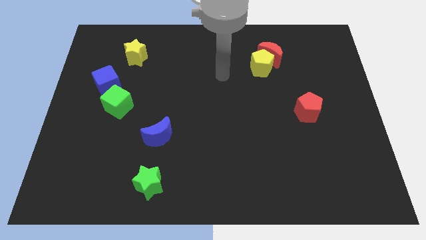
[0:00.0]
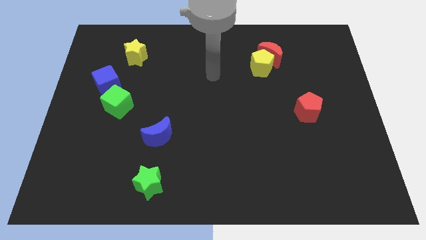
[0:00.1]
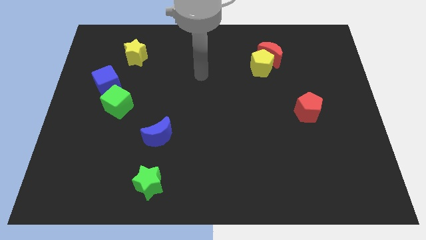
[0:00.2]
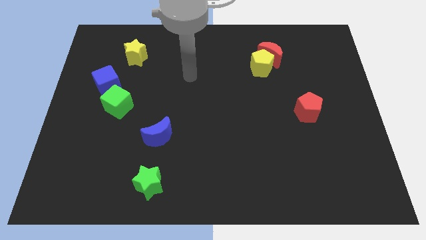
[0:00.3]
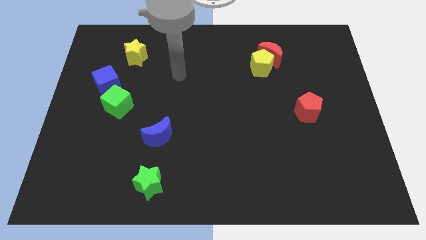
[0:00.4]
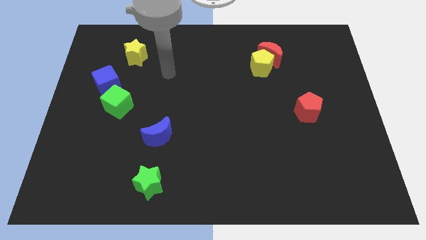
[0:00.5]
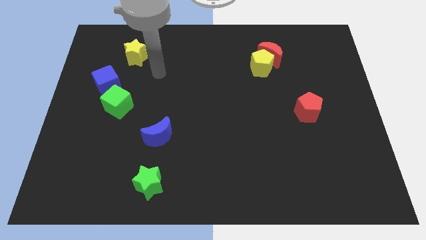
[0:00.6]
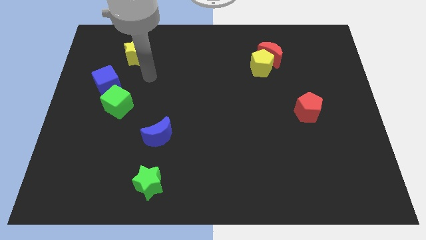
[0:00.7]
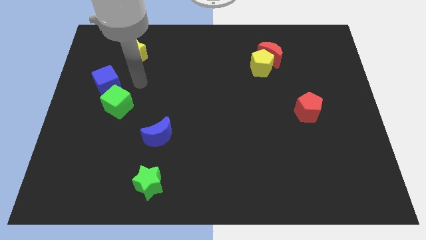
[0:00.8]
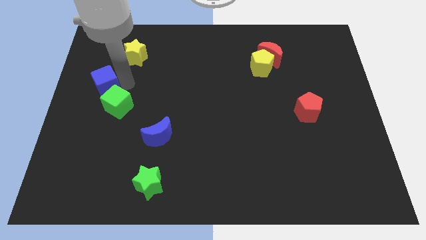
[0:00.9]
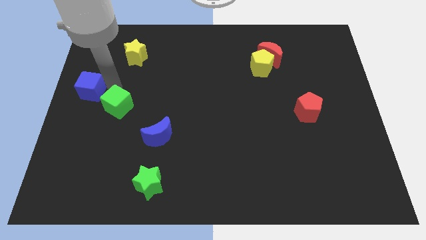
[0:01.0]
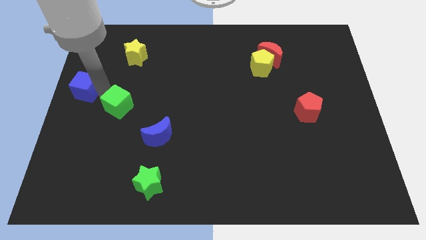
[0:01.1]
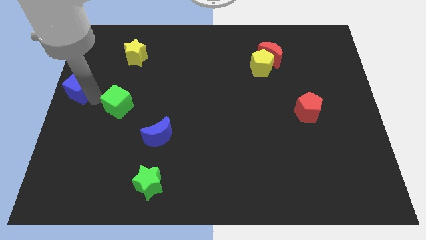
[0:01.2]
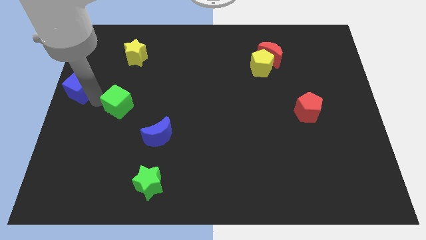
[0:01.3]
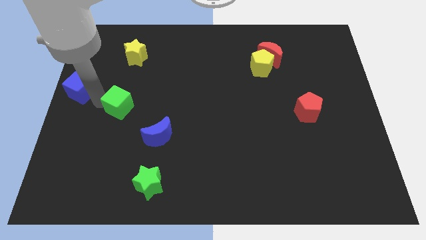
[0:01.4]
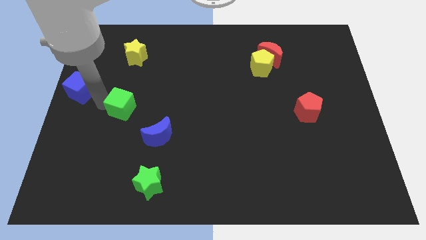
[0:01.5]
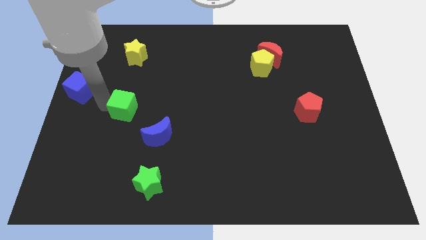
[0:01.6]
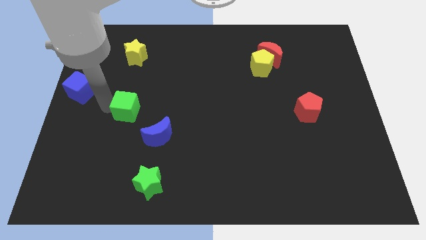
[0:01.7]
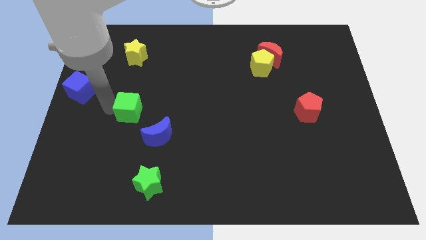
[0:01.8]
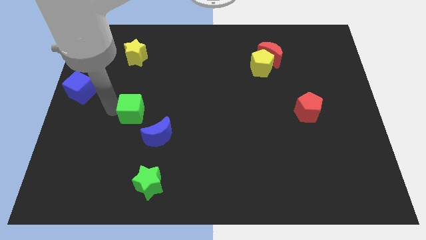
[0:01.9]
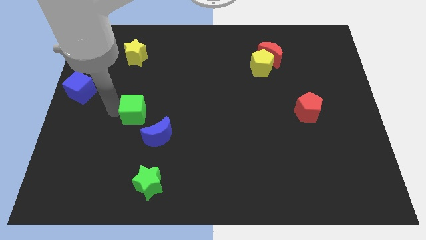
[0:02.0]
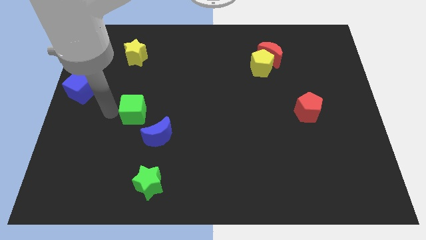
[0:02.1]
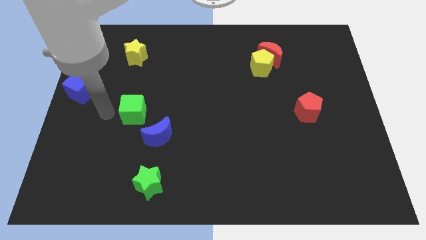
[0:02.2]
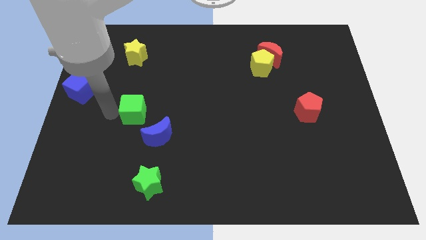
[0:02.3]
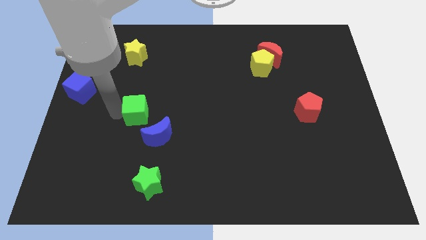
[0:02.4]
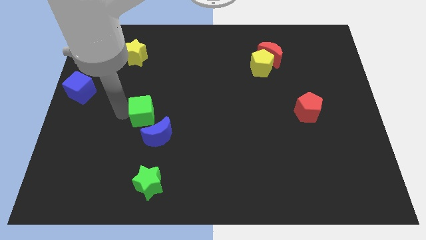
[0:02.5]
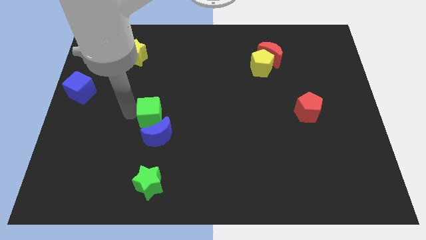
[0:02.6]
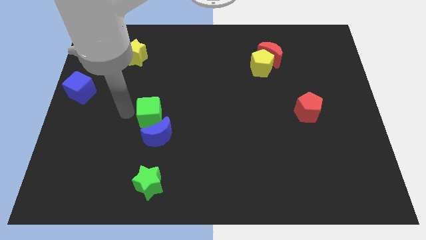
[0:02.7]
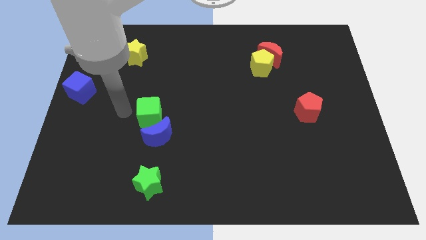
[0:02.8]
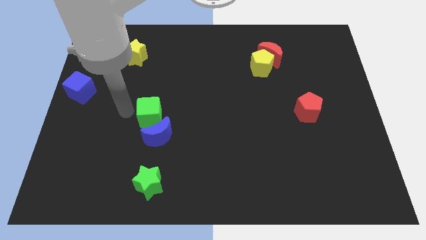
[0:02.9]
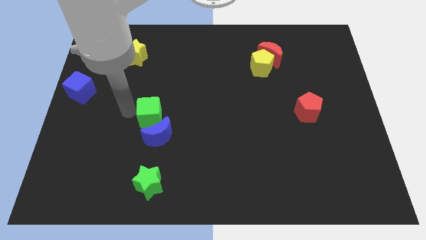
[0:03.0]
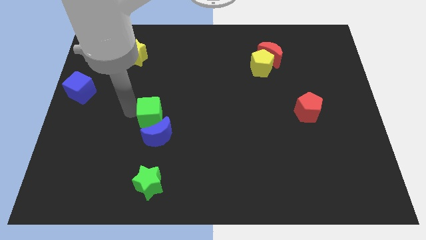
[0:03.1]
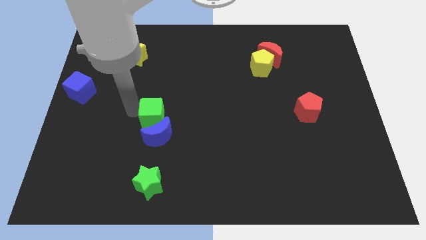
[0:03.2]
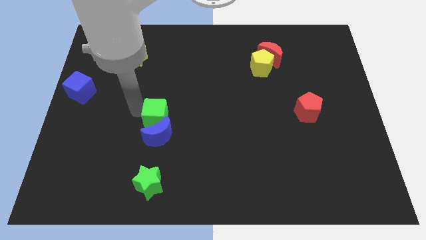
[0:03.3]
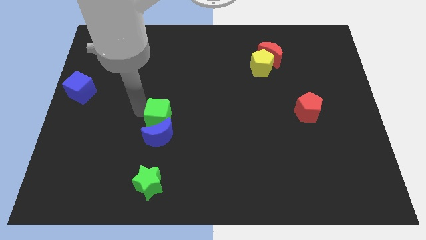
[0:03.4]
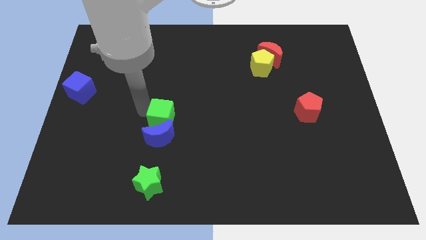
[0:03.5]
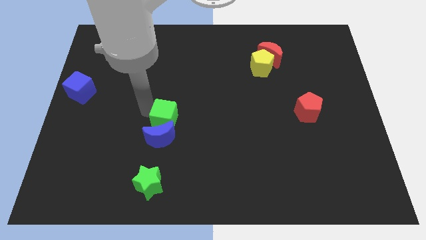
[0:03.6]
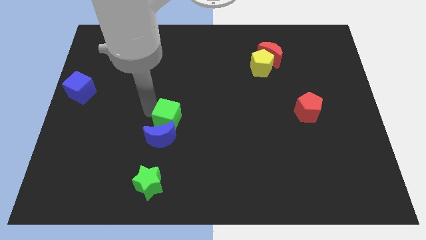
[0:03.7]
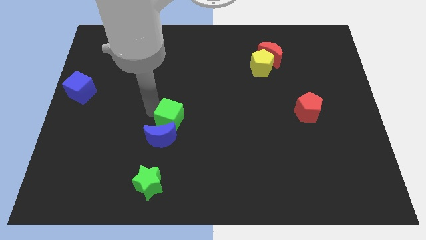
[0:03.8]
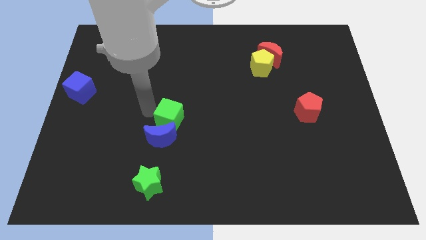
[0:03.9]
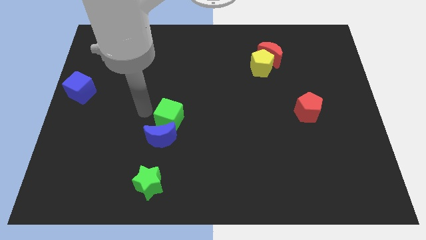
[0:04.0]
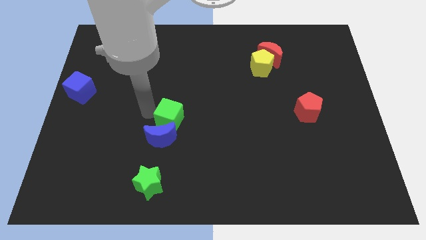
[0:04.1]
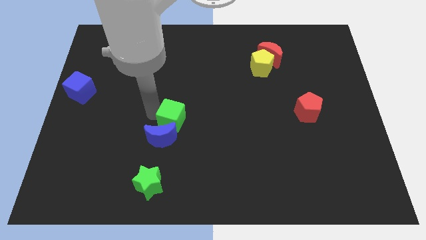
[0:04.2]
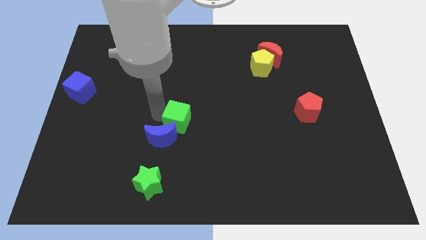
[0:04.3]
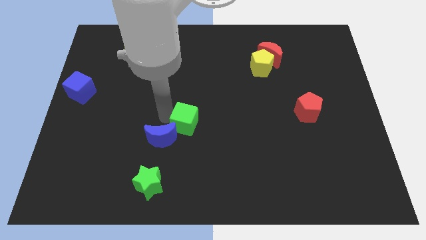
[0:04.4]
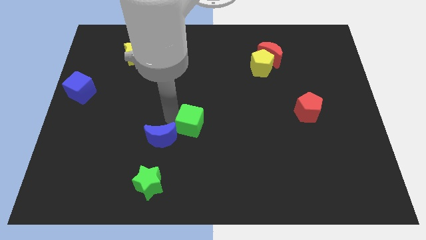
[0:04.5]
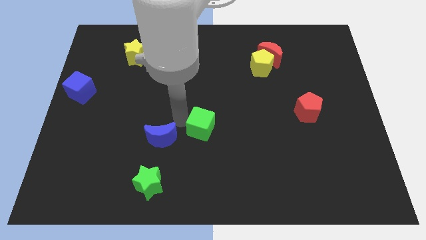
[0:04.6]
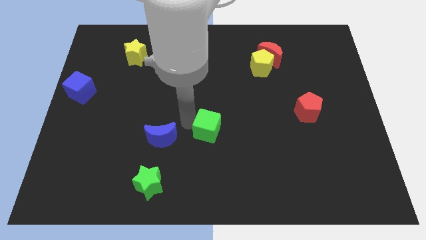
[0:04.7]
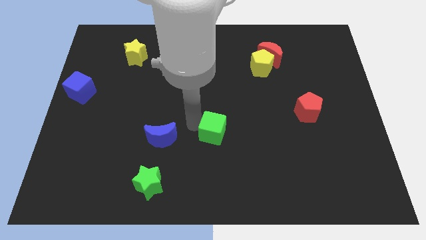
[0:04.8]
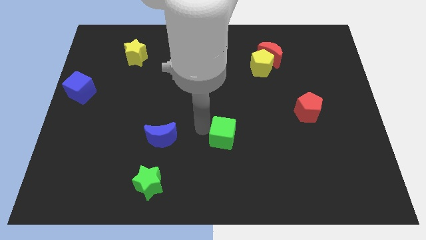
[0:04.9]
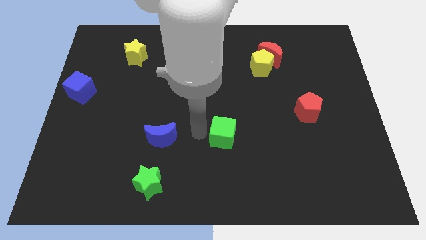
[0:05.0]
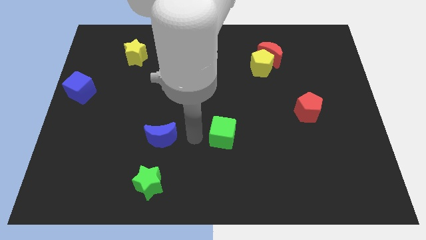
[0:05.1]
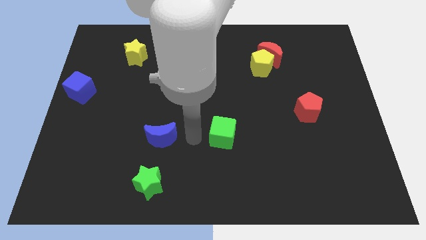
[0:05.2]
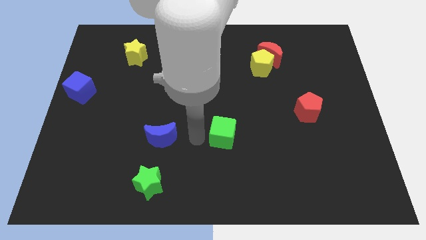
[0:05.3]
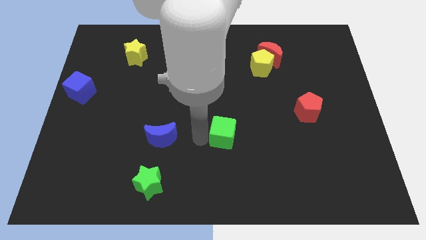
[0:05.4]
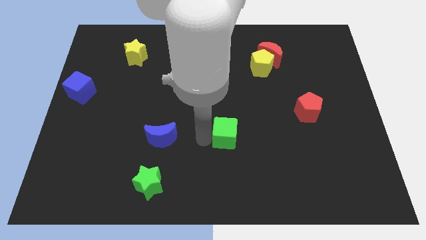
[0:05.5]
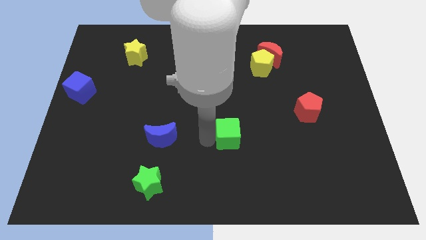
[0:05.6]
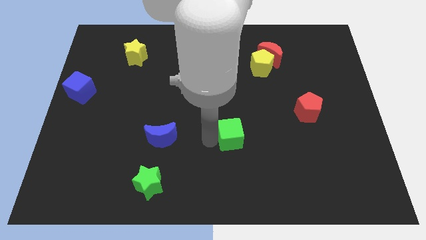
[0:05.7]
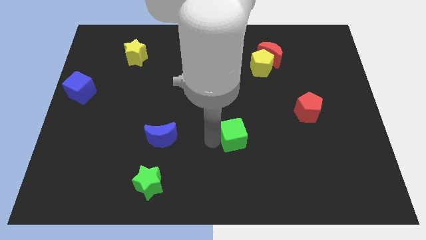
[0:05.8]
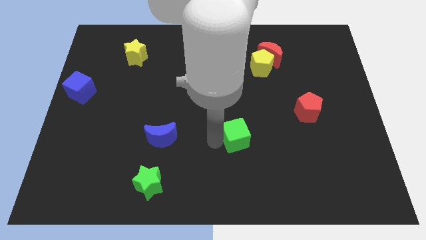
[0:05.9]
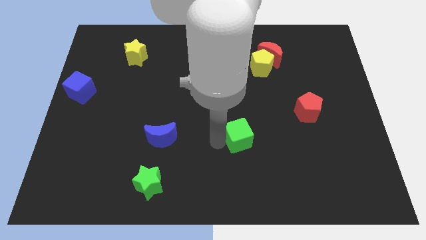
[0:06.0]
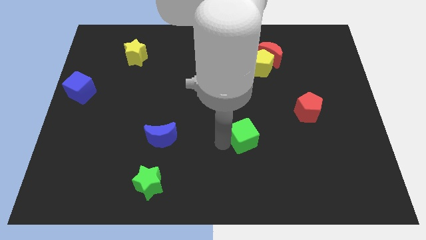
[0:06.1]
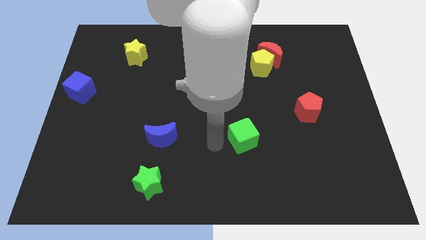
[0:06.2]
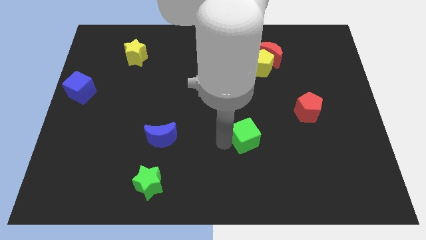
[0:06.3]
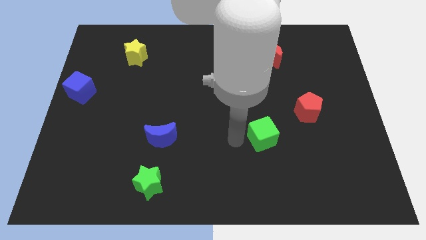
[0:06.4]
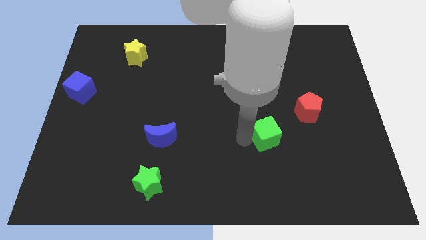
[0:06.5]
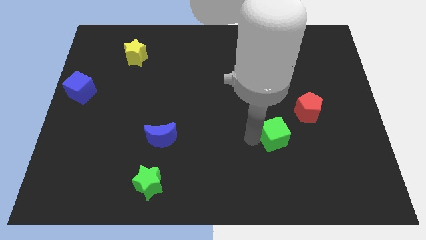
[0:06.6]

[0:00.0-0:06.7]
slide the green cube to the bottom left of the red pentagon
